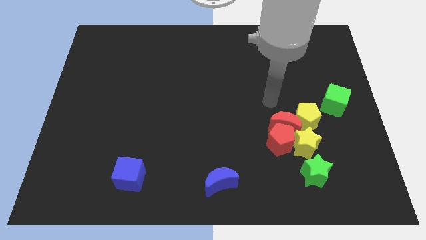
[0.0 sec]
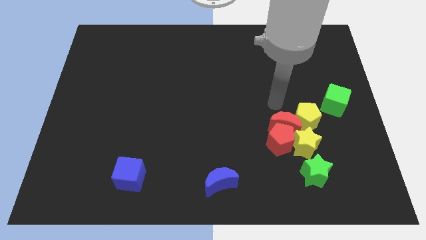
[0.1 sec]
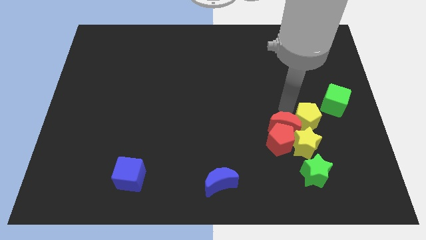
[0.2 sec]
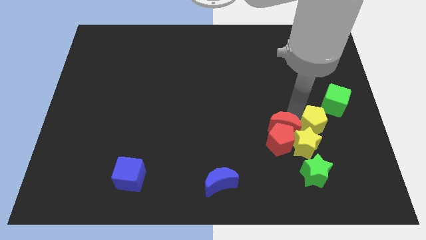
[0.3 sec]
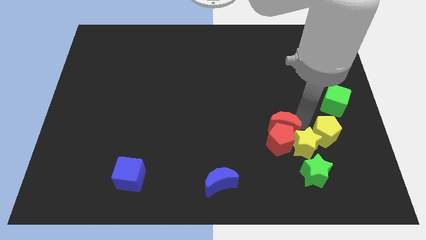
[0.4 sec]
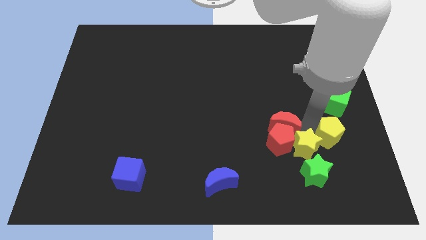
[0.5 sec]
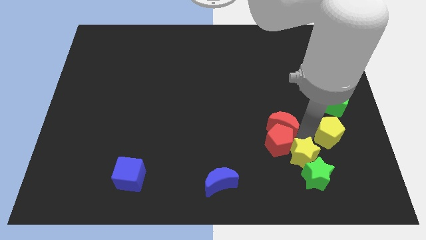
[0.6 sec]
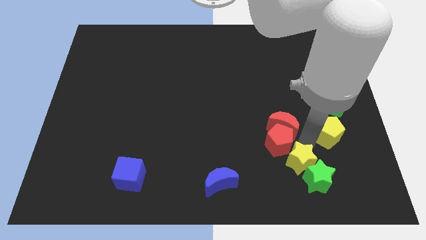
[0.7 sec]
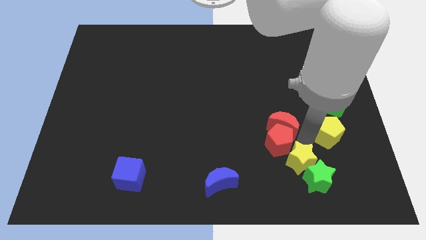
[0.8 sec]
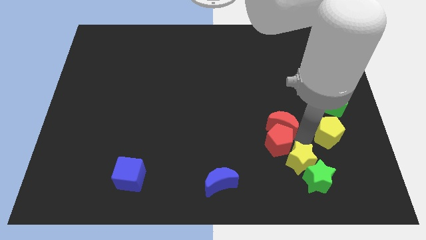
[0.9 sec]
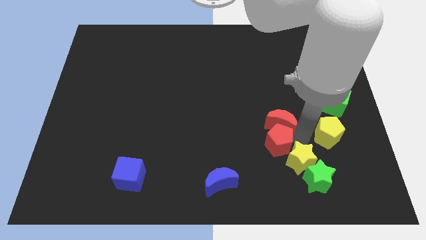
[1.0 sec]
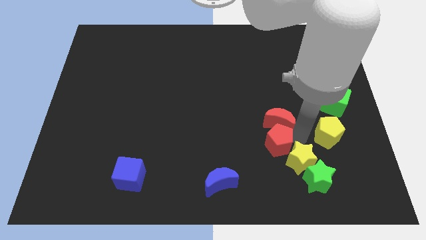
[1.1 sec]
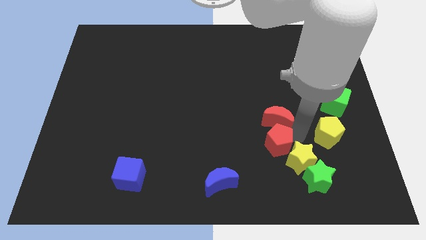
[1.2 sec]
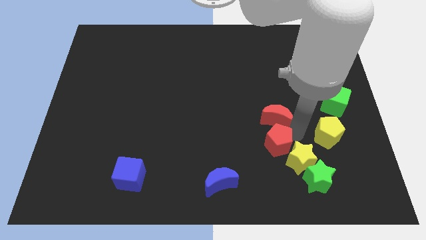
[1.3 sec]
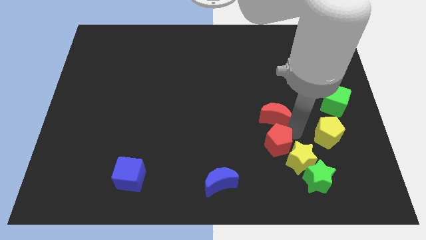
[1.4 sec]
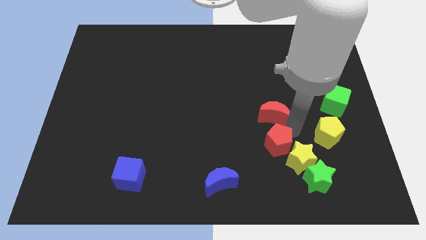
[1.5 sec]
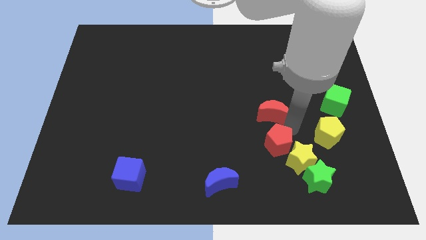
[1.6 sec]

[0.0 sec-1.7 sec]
separate the red moon from the red pentagon, yellow pentagon, and yellow star

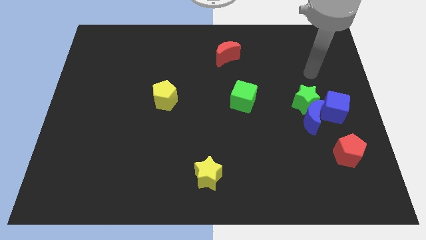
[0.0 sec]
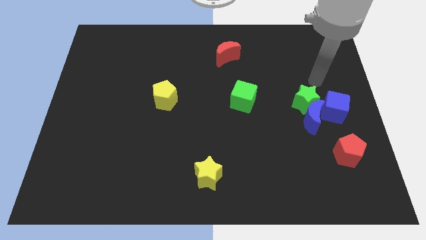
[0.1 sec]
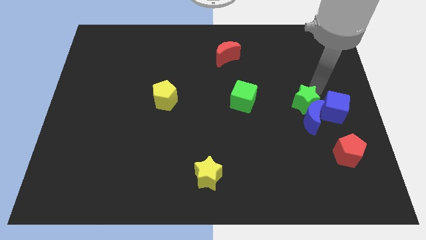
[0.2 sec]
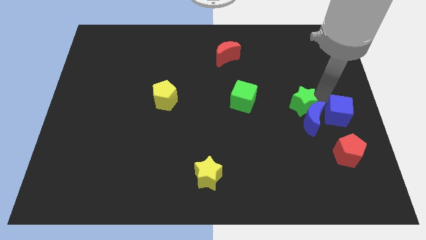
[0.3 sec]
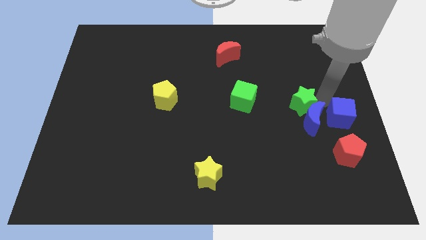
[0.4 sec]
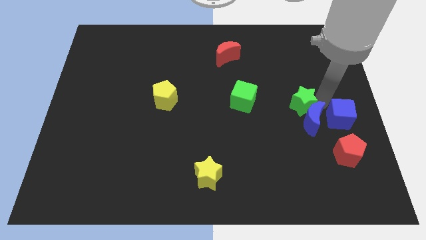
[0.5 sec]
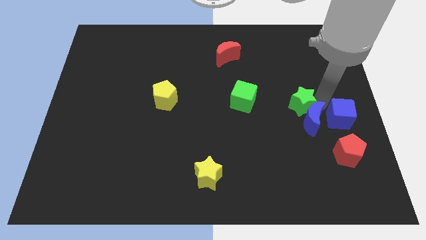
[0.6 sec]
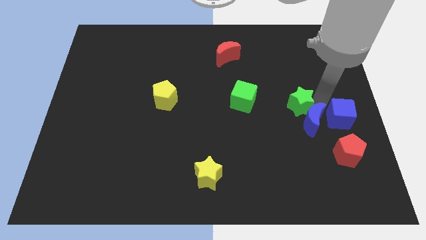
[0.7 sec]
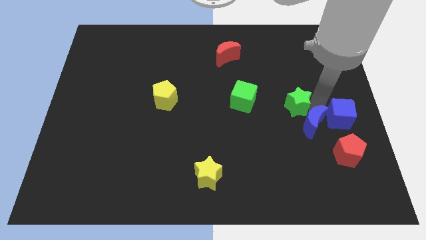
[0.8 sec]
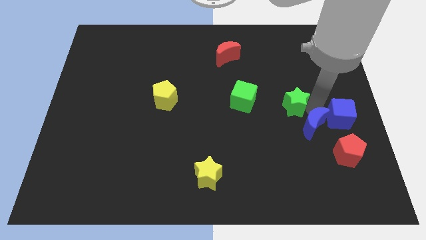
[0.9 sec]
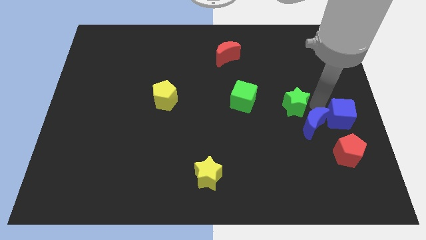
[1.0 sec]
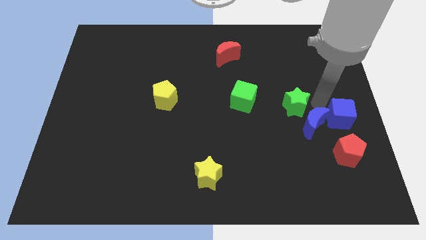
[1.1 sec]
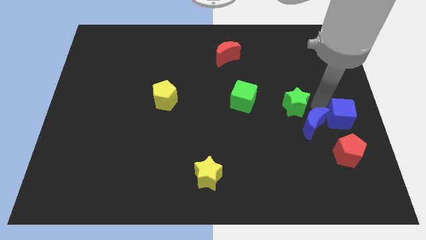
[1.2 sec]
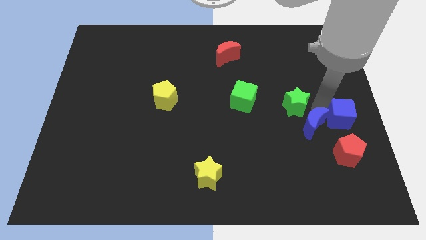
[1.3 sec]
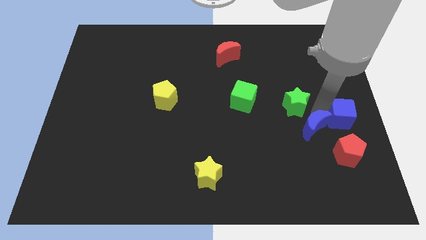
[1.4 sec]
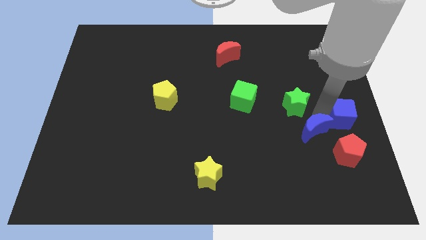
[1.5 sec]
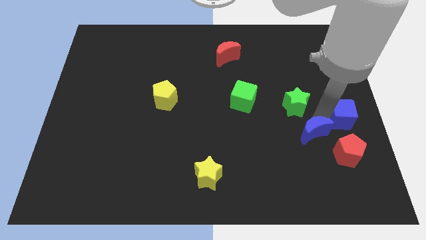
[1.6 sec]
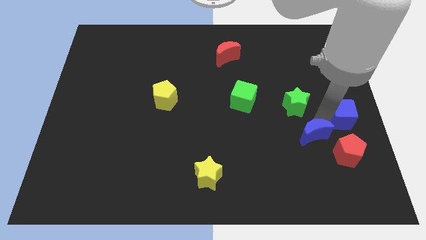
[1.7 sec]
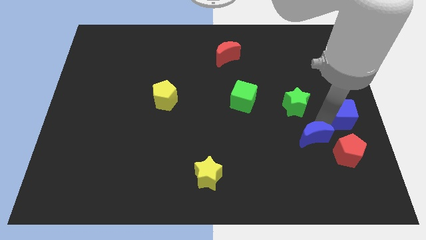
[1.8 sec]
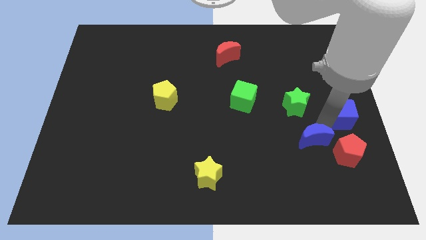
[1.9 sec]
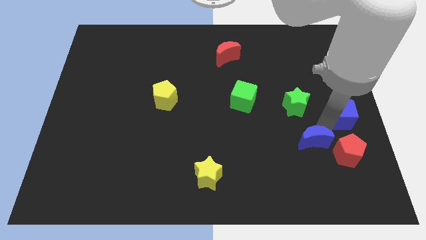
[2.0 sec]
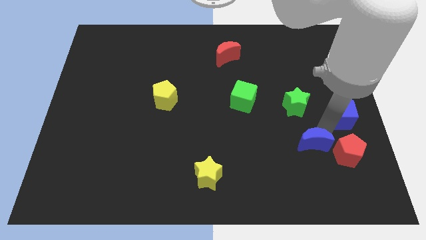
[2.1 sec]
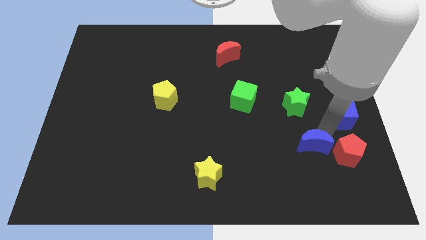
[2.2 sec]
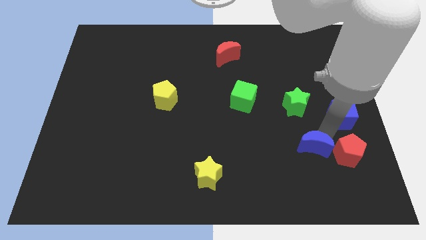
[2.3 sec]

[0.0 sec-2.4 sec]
move the blue moon away from the green star and blue cube

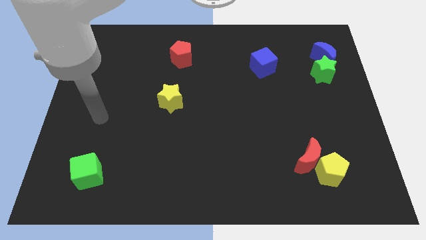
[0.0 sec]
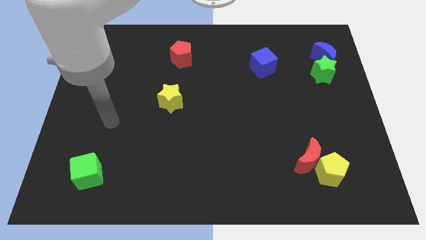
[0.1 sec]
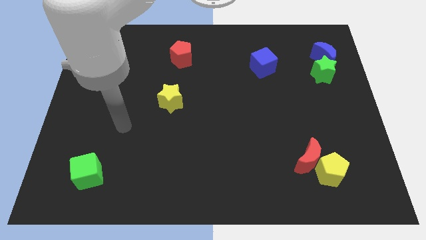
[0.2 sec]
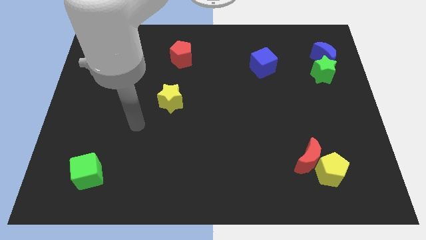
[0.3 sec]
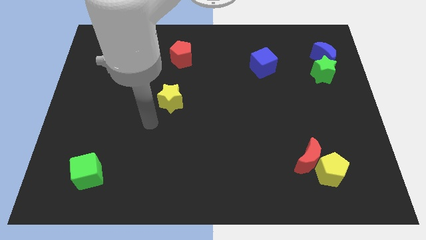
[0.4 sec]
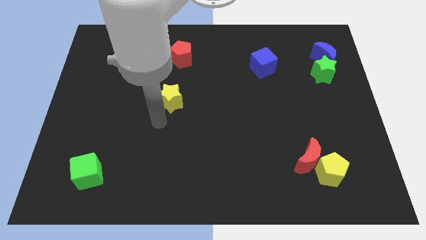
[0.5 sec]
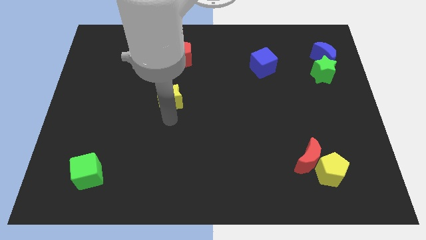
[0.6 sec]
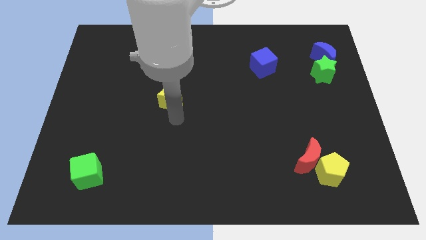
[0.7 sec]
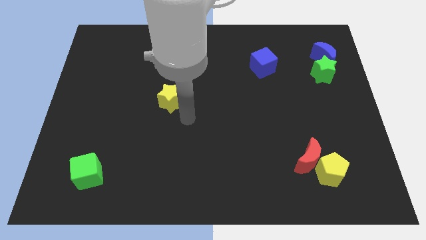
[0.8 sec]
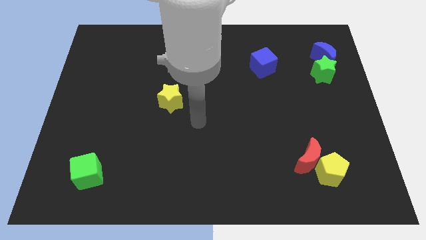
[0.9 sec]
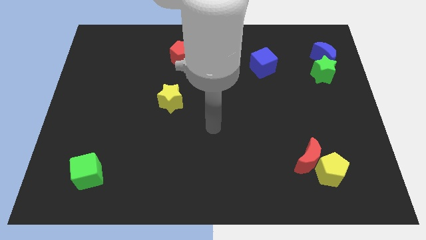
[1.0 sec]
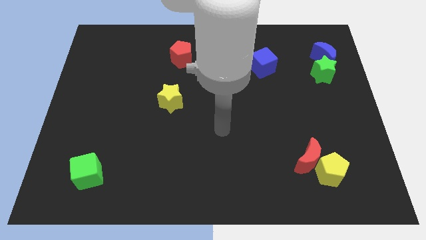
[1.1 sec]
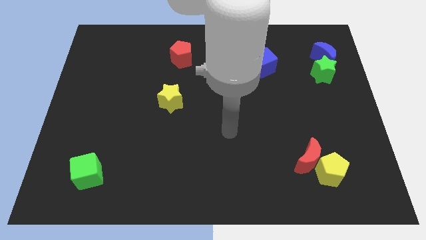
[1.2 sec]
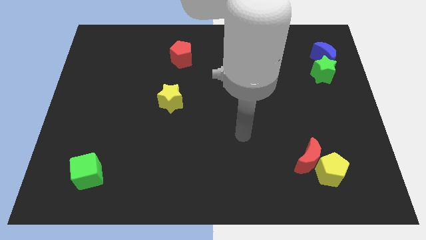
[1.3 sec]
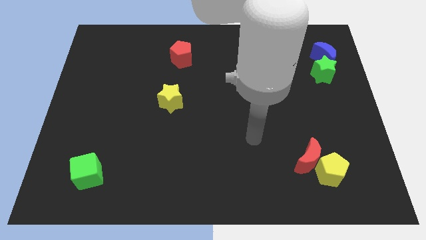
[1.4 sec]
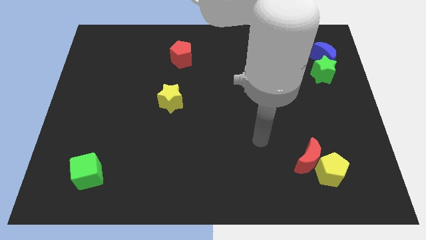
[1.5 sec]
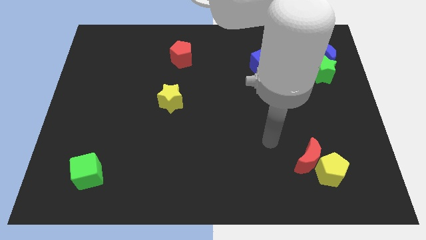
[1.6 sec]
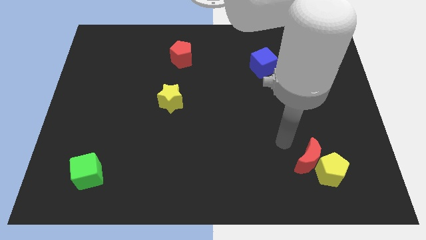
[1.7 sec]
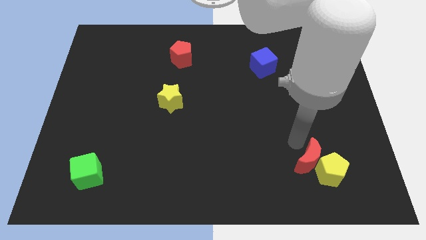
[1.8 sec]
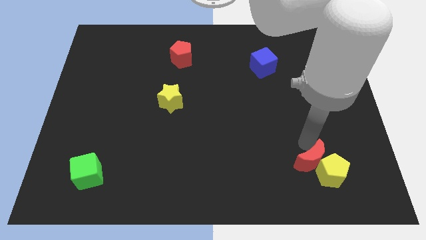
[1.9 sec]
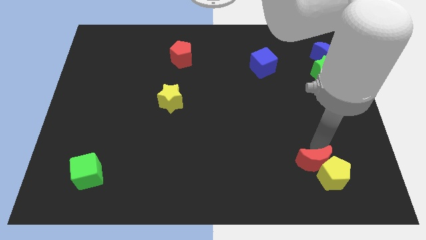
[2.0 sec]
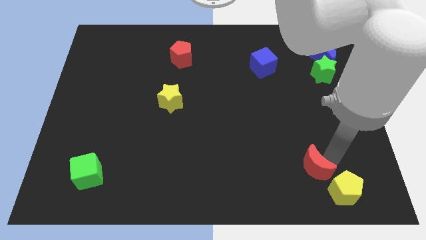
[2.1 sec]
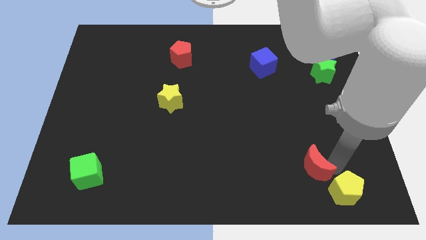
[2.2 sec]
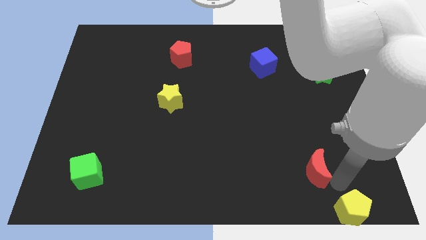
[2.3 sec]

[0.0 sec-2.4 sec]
pull the red moon apart from the yellow pentagon

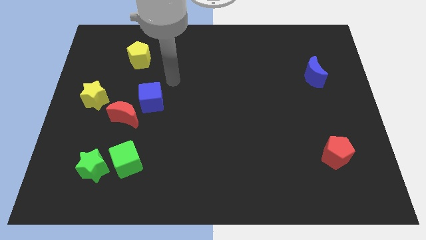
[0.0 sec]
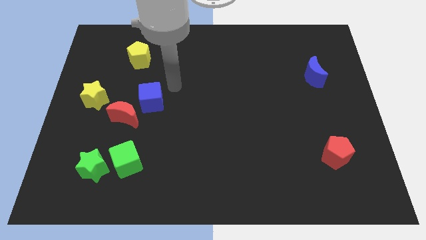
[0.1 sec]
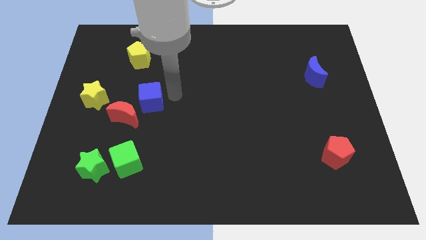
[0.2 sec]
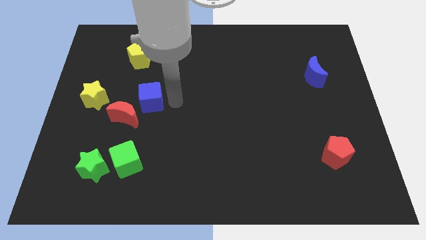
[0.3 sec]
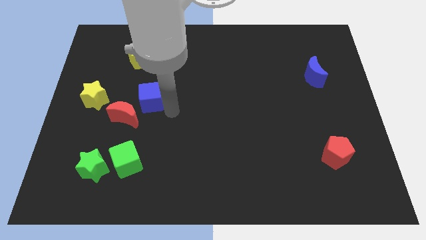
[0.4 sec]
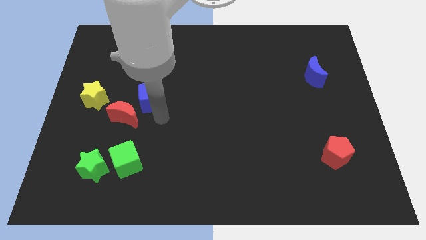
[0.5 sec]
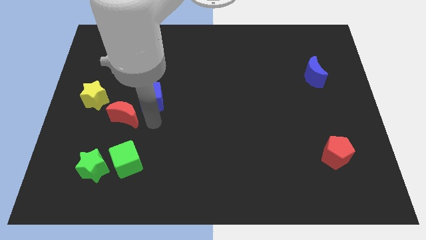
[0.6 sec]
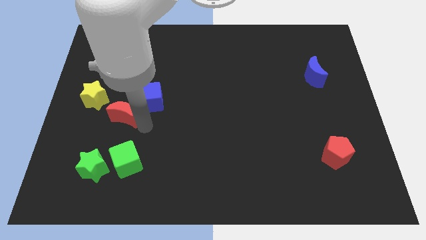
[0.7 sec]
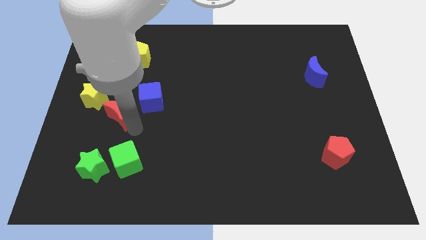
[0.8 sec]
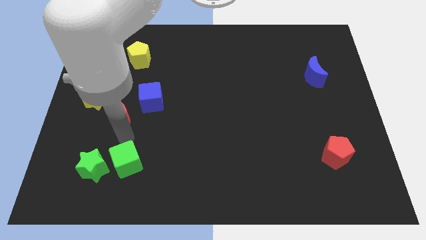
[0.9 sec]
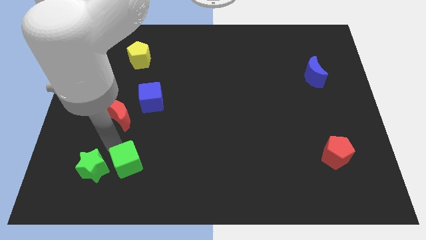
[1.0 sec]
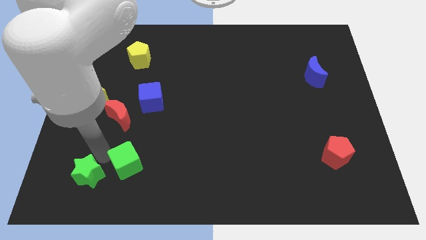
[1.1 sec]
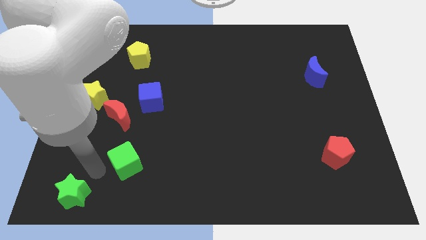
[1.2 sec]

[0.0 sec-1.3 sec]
pull the green cube apart from the green star

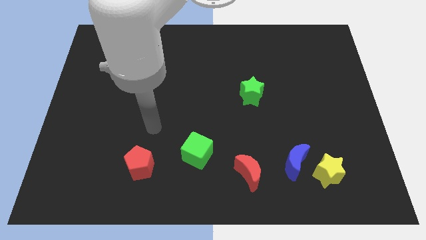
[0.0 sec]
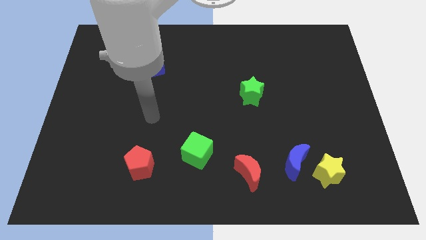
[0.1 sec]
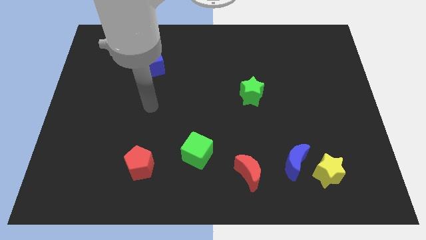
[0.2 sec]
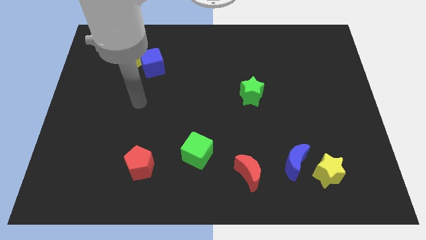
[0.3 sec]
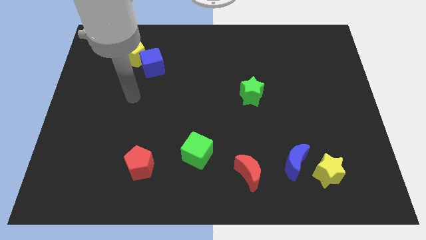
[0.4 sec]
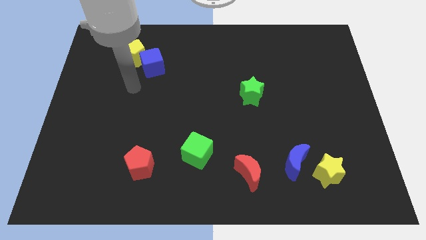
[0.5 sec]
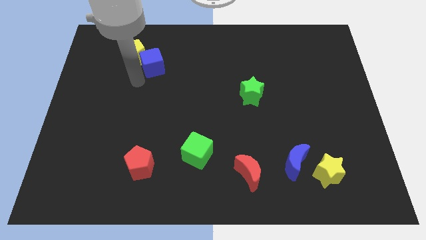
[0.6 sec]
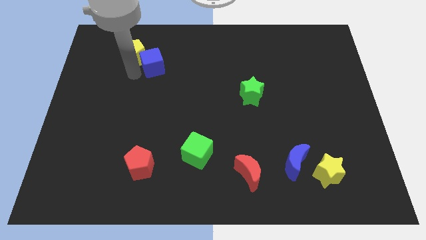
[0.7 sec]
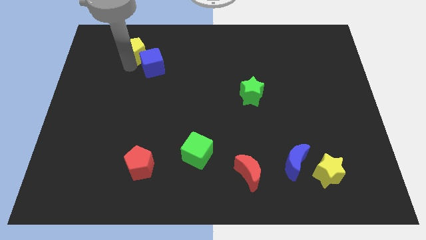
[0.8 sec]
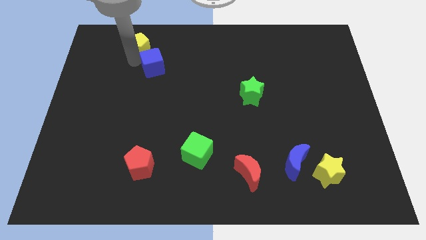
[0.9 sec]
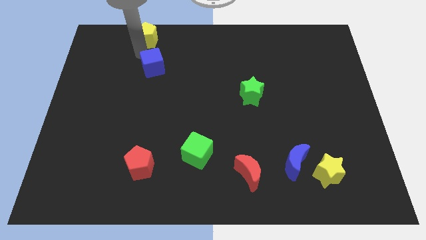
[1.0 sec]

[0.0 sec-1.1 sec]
move the blue cube away from the yellow pentagon

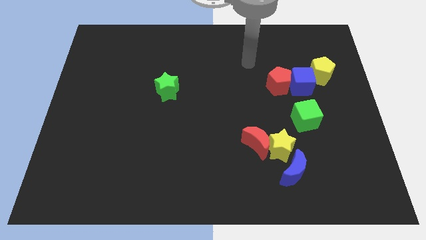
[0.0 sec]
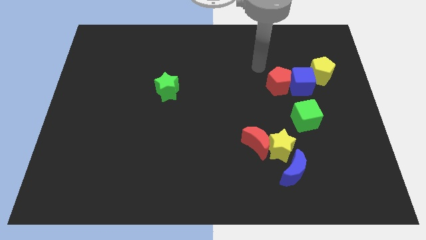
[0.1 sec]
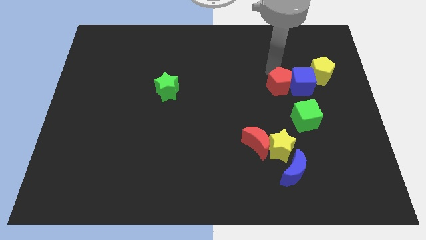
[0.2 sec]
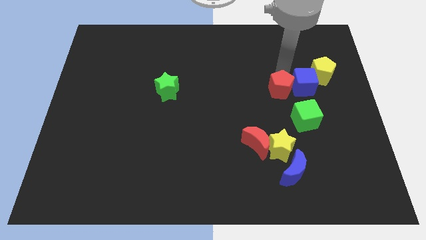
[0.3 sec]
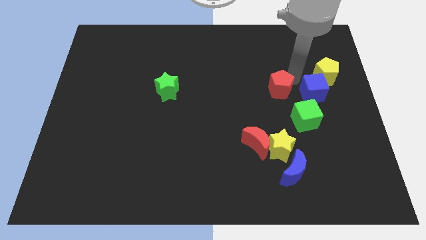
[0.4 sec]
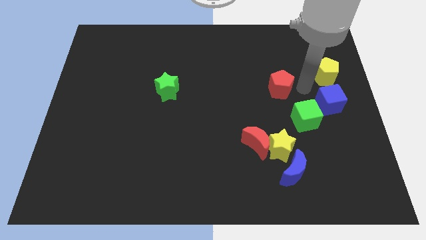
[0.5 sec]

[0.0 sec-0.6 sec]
separate the red pentagon from the blue cube
